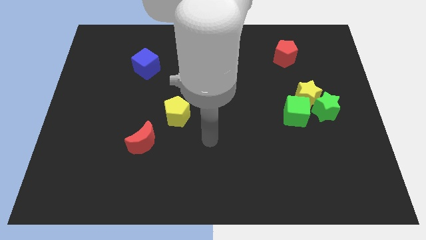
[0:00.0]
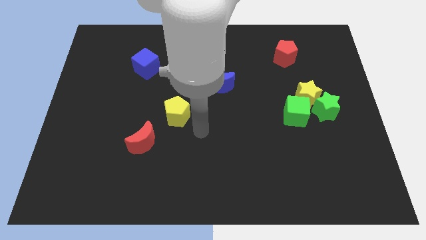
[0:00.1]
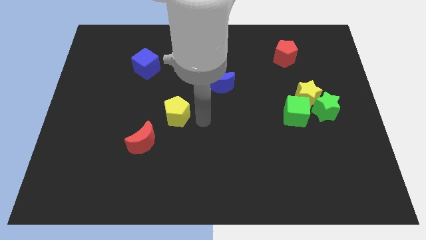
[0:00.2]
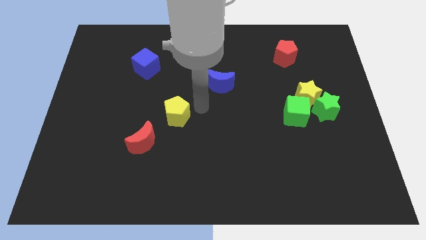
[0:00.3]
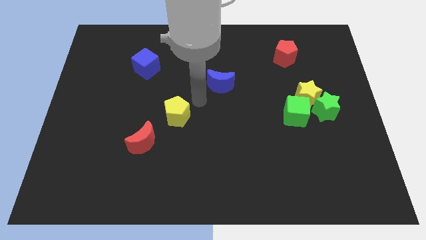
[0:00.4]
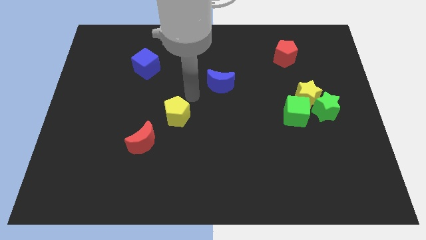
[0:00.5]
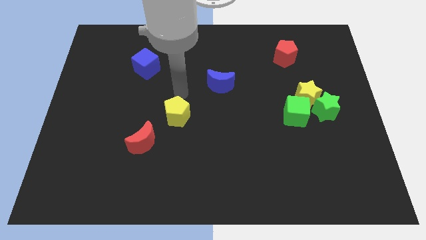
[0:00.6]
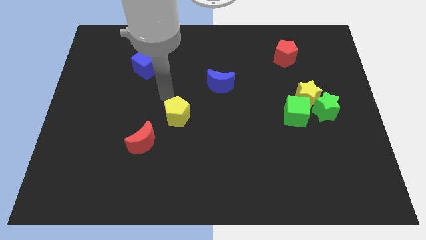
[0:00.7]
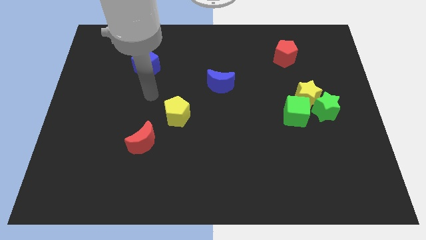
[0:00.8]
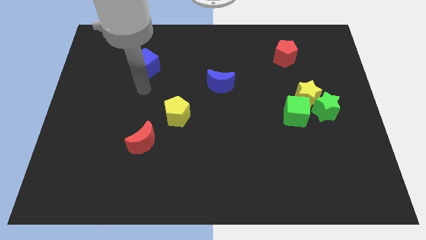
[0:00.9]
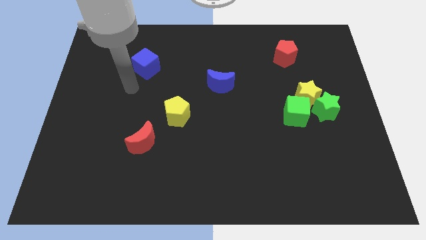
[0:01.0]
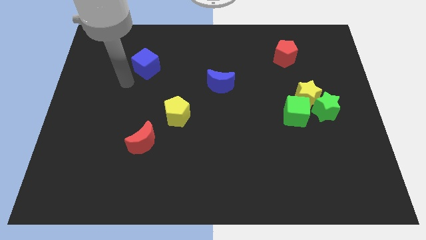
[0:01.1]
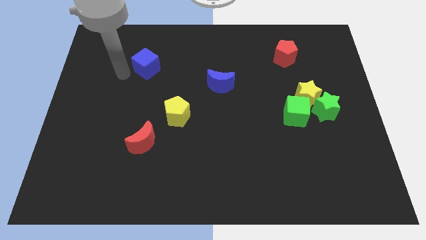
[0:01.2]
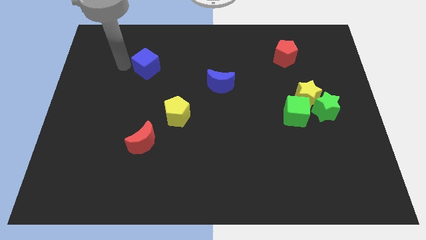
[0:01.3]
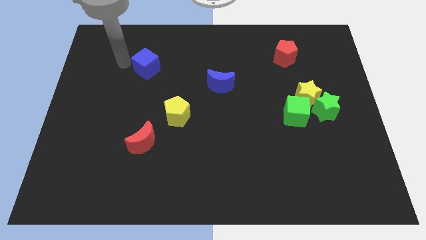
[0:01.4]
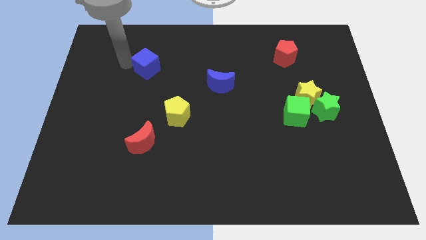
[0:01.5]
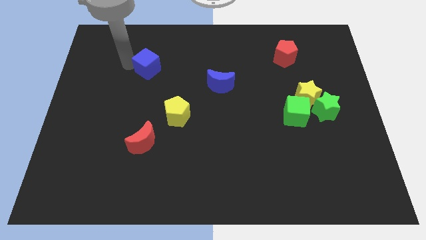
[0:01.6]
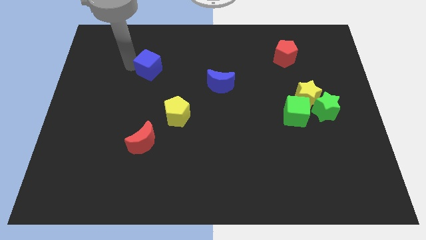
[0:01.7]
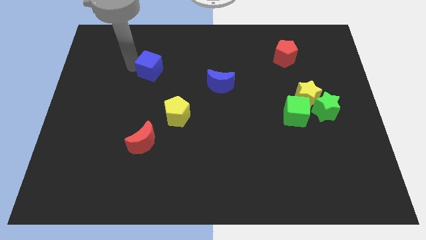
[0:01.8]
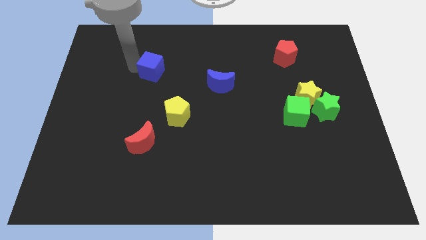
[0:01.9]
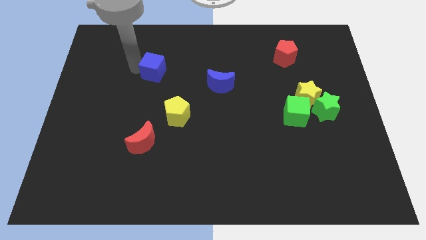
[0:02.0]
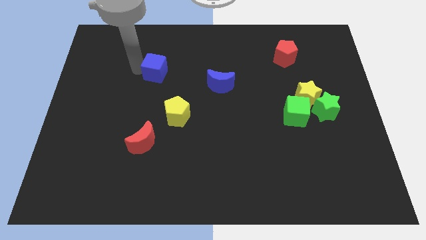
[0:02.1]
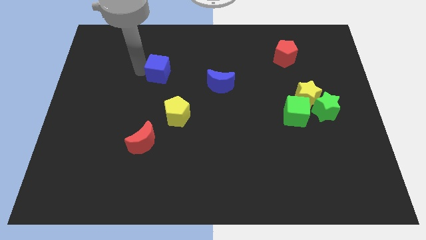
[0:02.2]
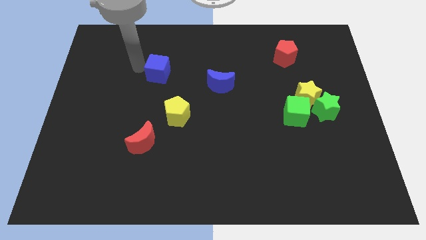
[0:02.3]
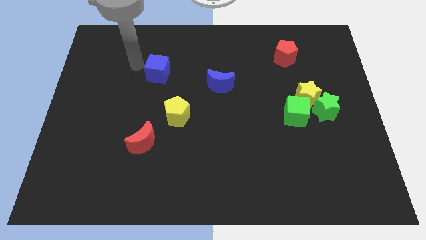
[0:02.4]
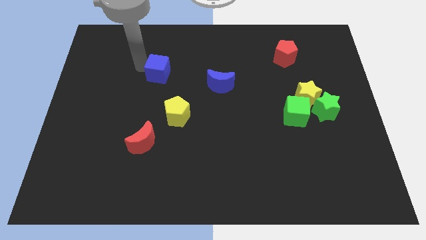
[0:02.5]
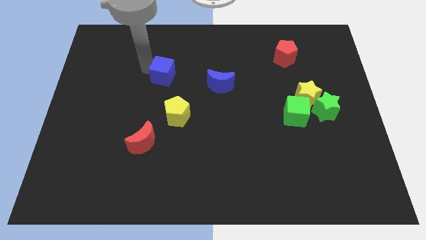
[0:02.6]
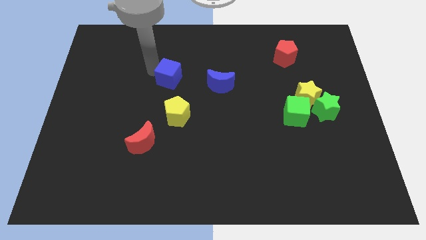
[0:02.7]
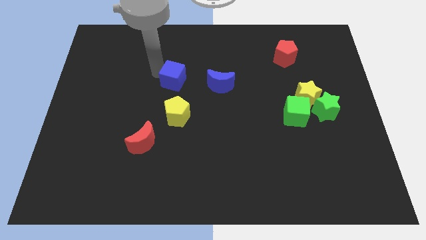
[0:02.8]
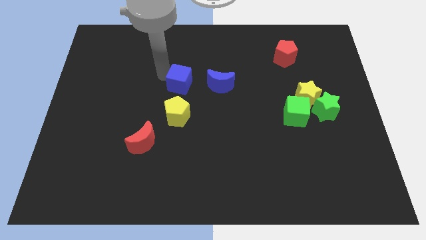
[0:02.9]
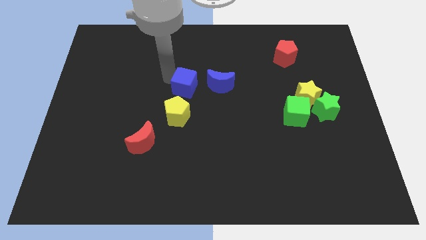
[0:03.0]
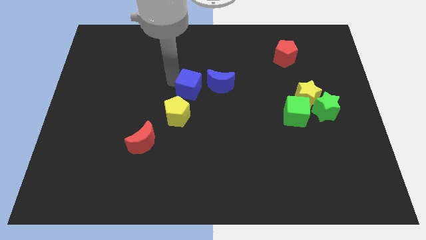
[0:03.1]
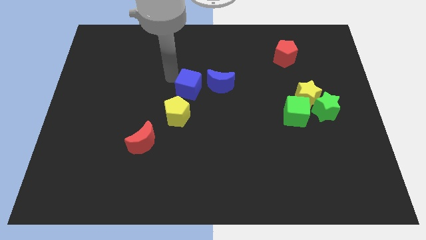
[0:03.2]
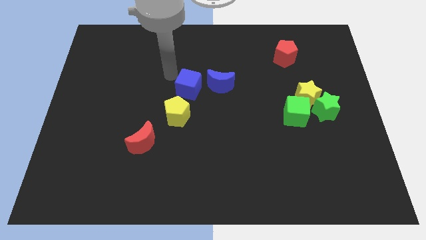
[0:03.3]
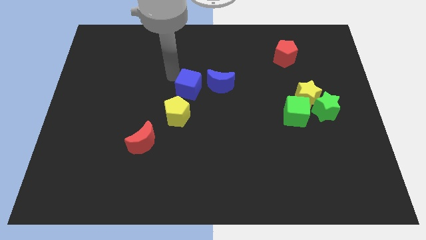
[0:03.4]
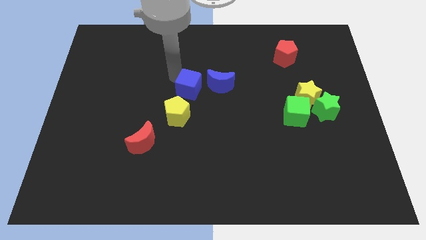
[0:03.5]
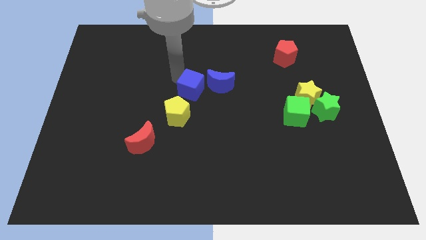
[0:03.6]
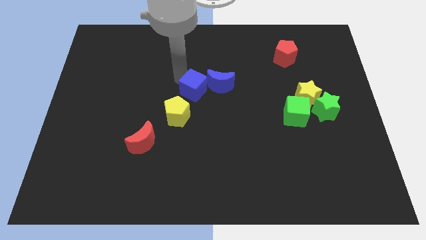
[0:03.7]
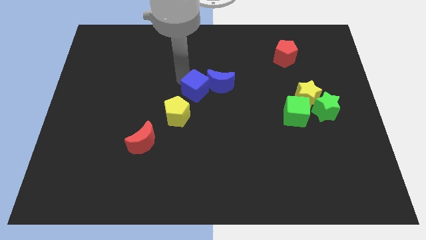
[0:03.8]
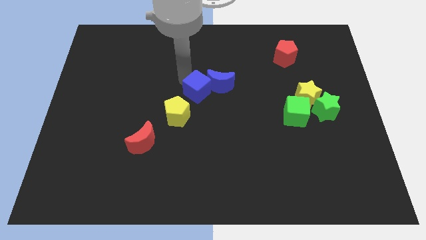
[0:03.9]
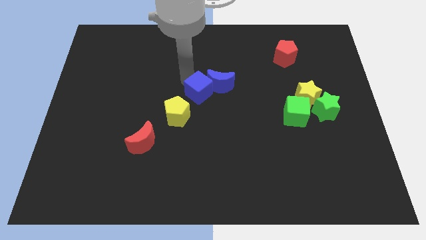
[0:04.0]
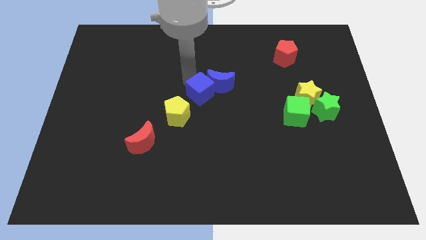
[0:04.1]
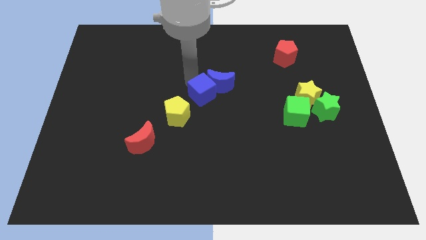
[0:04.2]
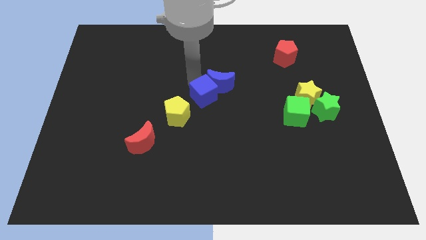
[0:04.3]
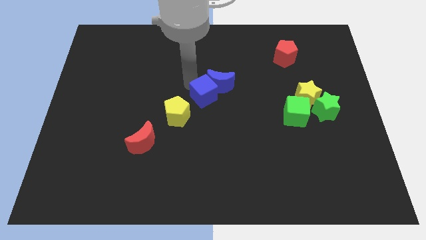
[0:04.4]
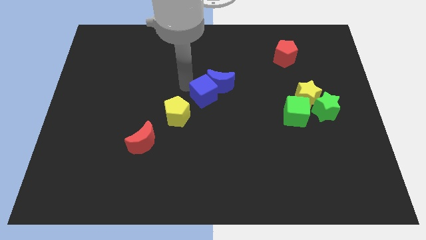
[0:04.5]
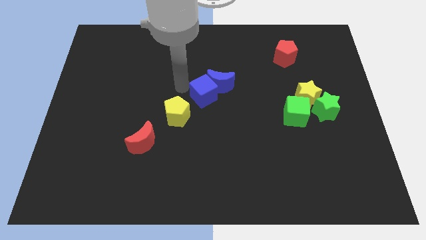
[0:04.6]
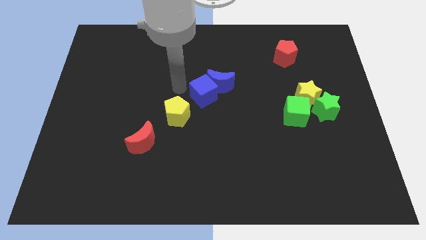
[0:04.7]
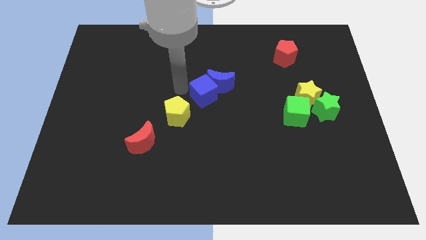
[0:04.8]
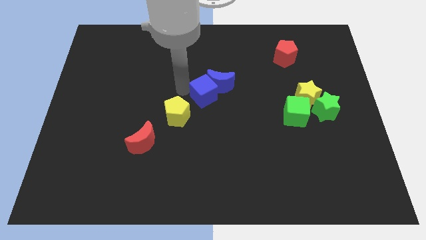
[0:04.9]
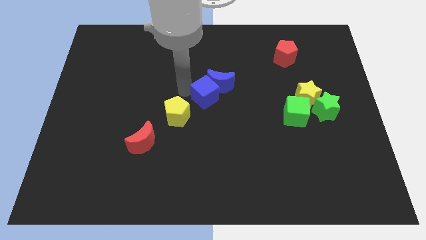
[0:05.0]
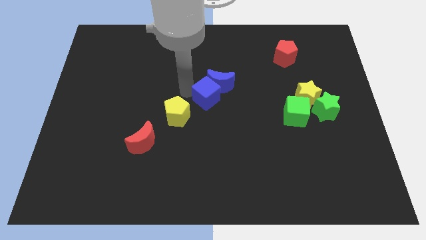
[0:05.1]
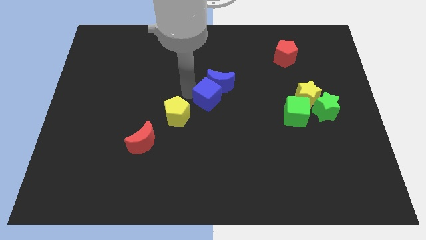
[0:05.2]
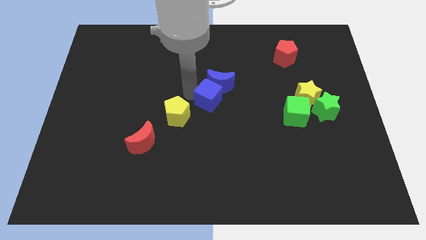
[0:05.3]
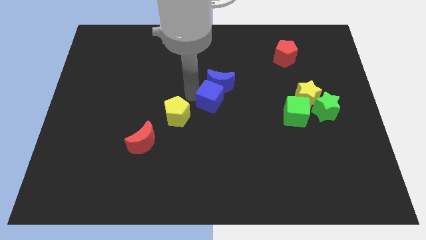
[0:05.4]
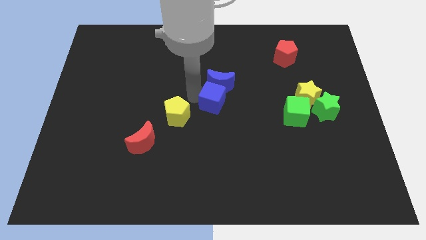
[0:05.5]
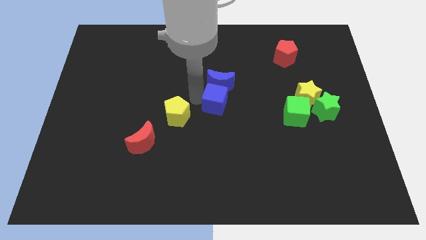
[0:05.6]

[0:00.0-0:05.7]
move the blue cube to the bottom right side of the blue moon

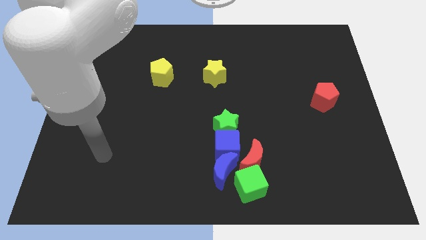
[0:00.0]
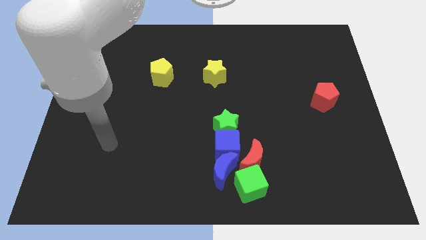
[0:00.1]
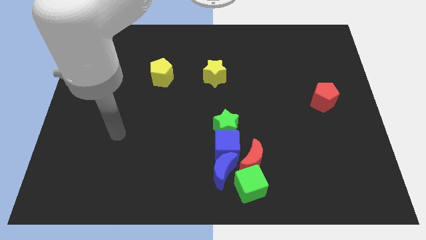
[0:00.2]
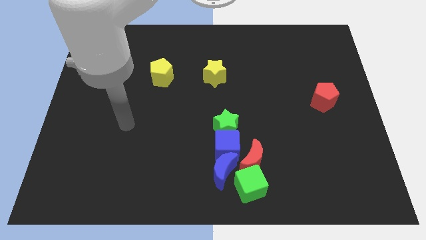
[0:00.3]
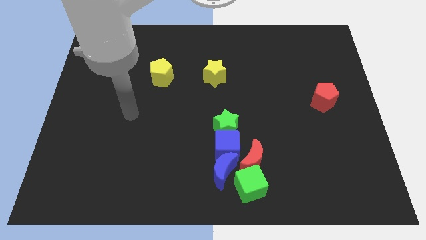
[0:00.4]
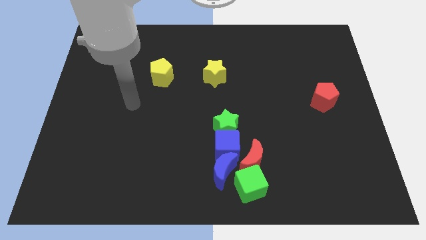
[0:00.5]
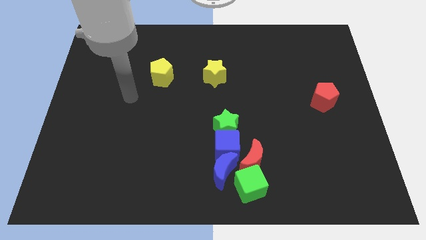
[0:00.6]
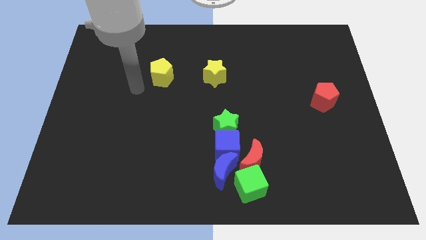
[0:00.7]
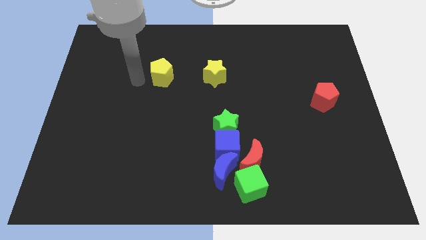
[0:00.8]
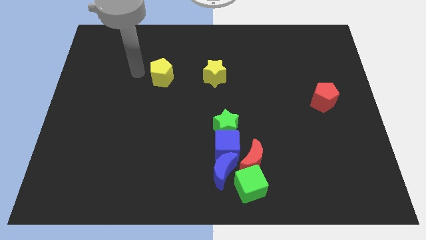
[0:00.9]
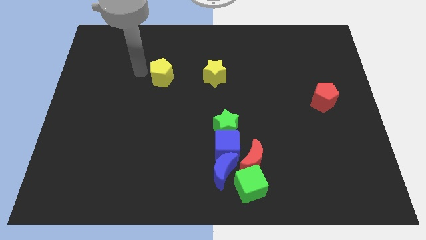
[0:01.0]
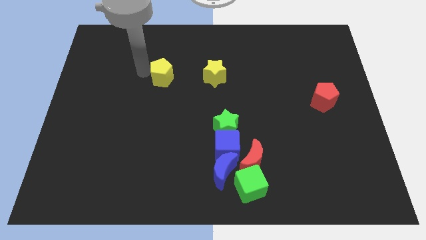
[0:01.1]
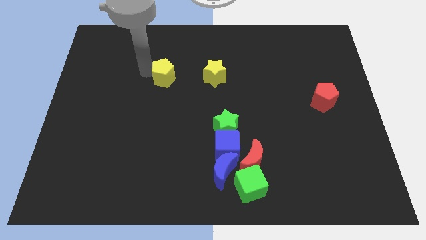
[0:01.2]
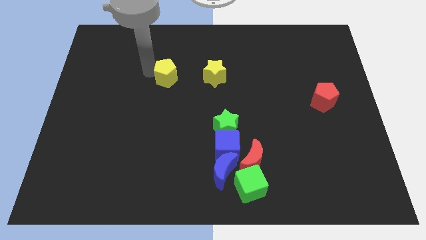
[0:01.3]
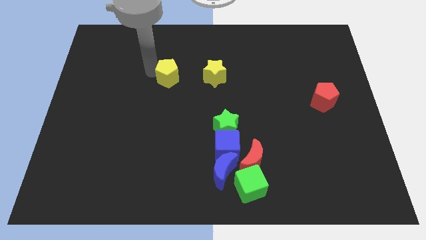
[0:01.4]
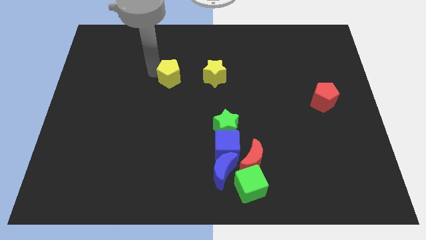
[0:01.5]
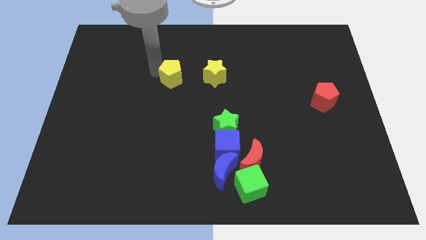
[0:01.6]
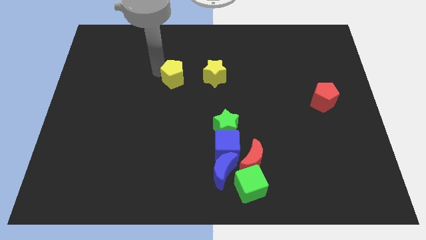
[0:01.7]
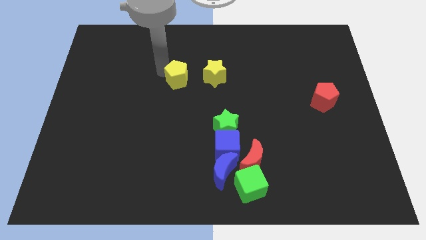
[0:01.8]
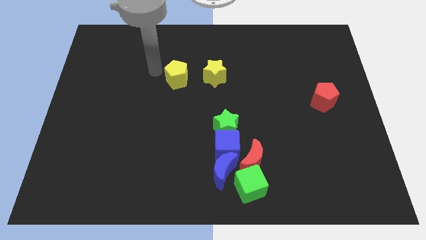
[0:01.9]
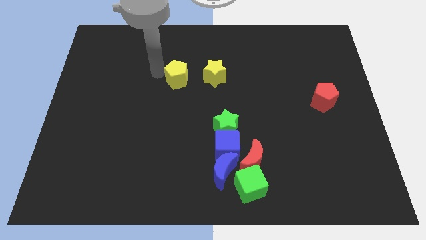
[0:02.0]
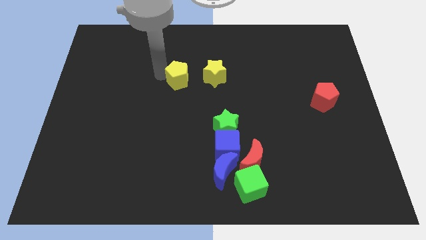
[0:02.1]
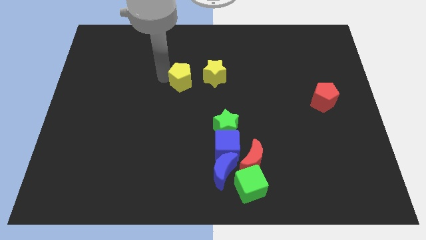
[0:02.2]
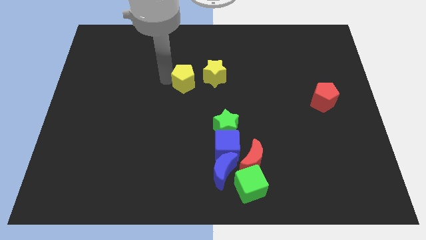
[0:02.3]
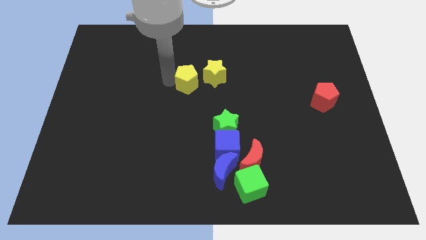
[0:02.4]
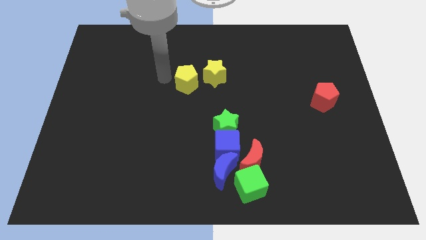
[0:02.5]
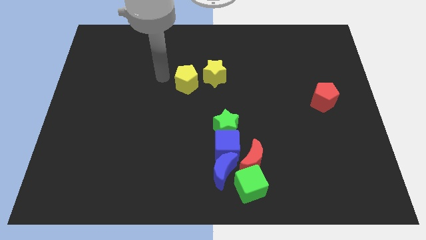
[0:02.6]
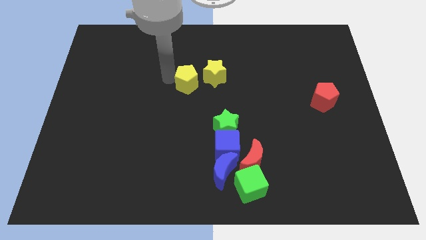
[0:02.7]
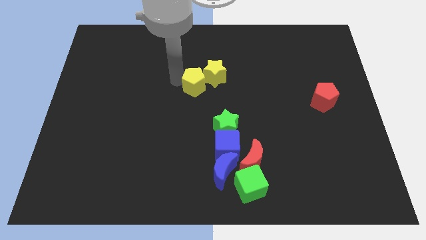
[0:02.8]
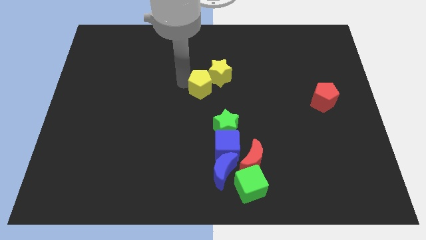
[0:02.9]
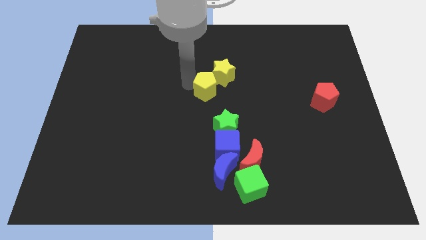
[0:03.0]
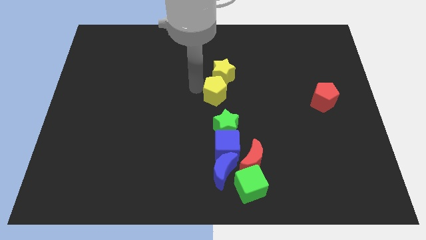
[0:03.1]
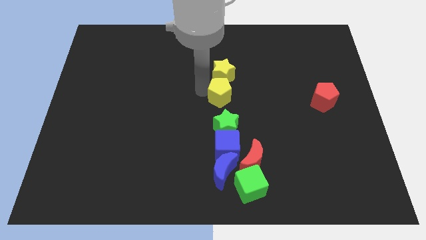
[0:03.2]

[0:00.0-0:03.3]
push the yellow pentagon to the bottom right side of the yellow star
